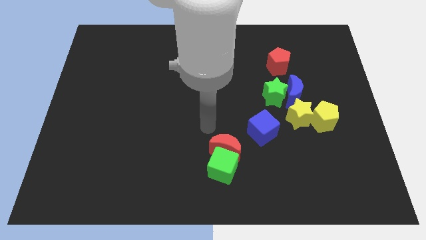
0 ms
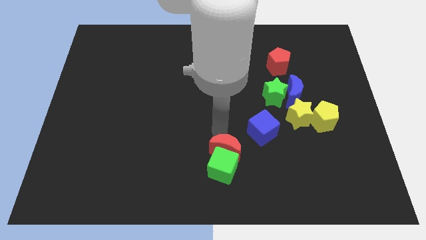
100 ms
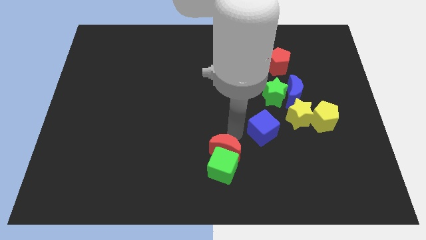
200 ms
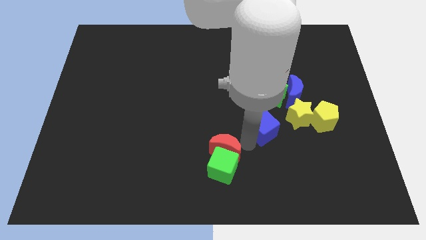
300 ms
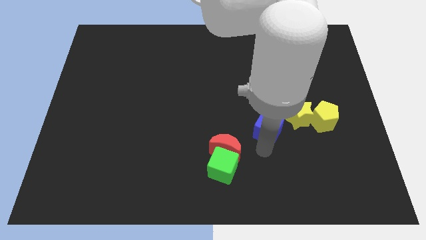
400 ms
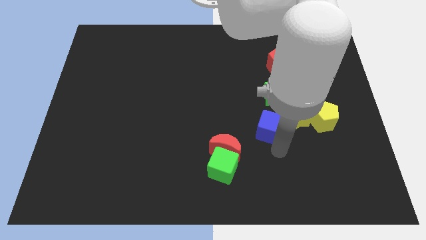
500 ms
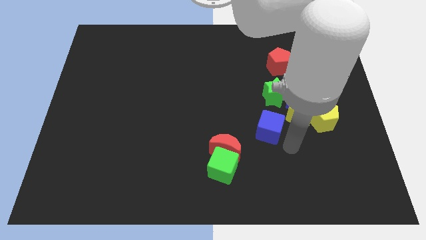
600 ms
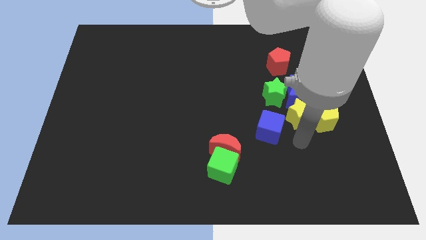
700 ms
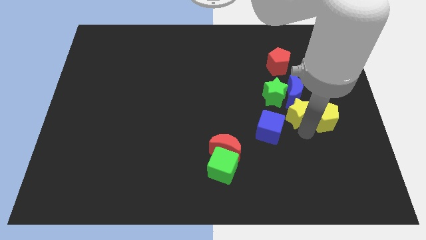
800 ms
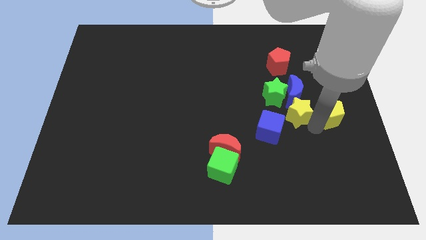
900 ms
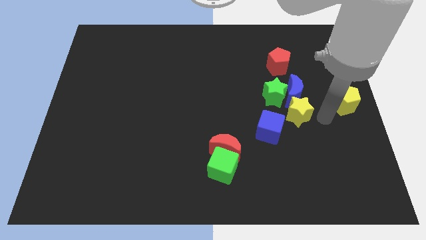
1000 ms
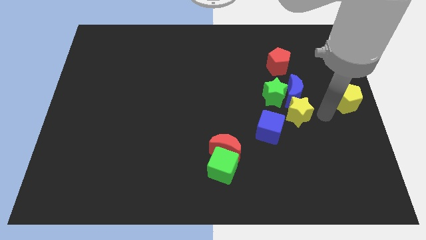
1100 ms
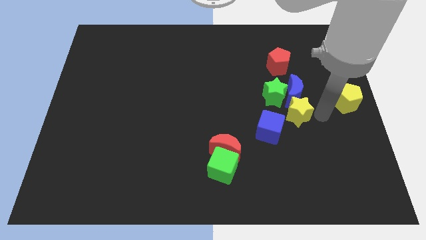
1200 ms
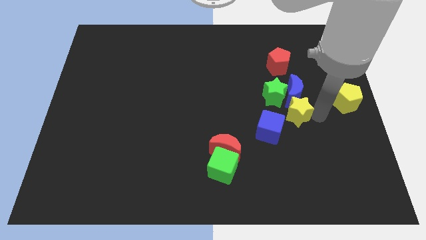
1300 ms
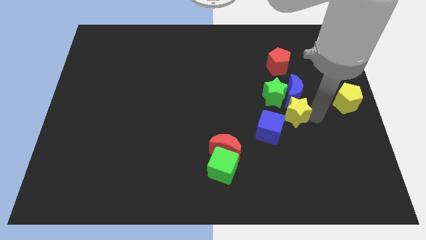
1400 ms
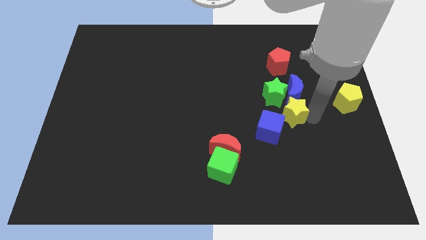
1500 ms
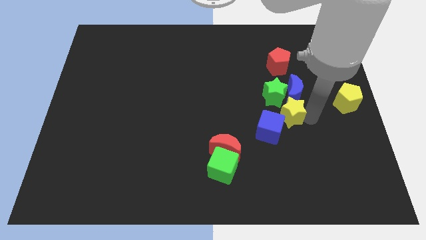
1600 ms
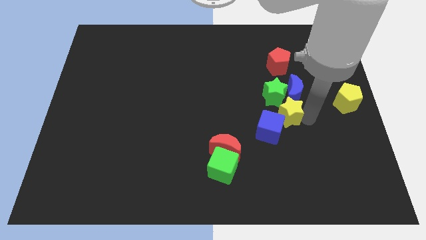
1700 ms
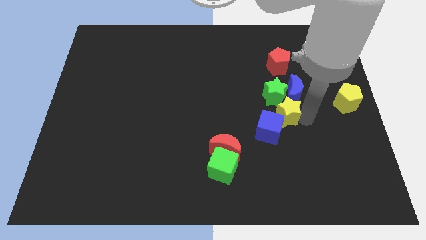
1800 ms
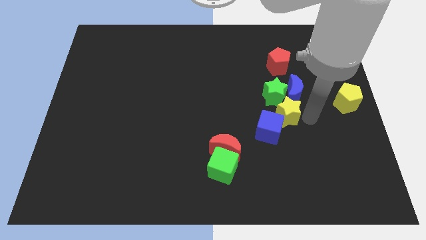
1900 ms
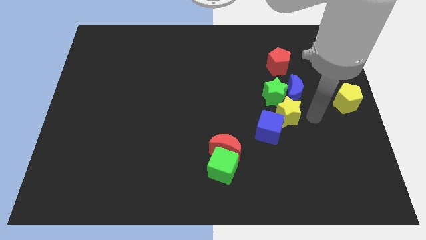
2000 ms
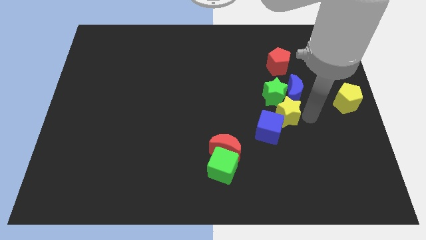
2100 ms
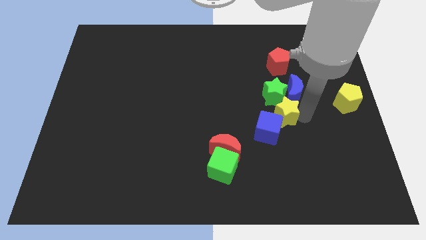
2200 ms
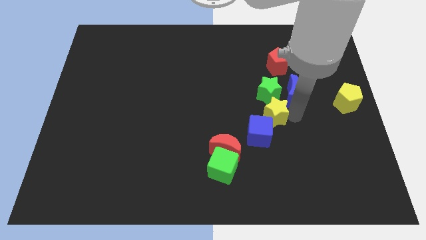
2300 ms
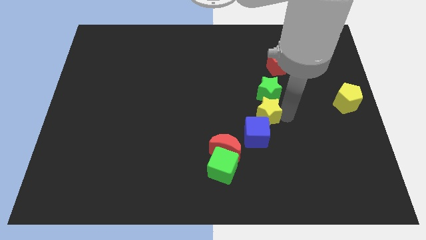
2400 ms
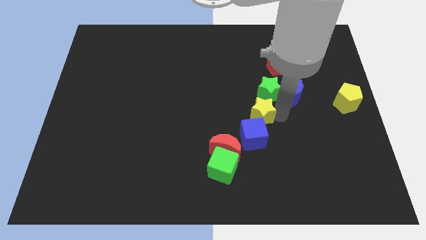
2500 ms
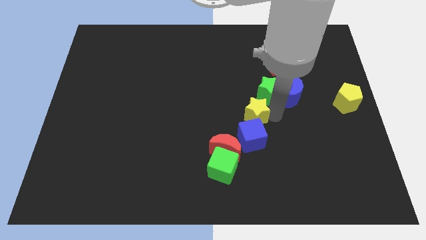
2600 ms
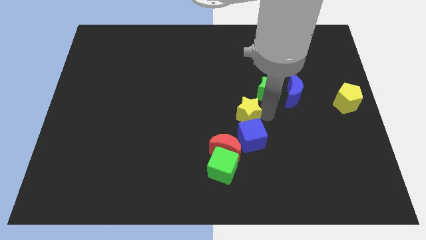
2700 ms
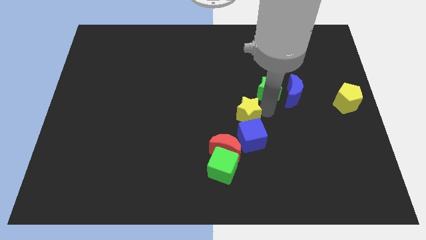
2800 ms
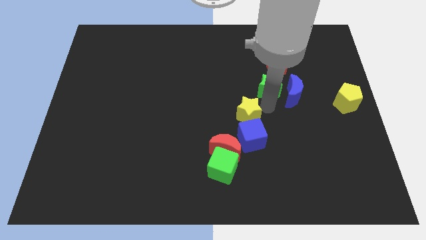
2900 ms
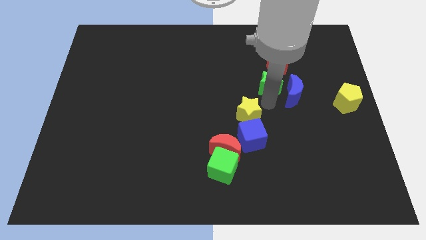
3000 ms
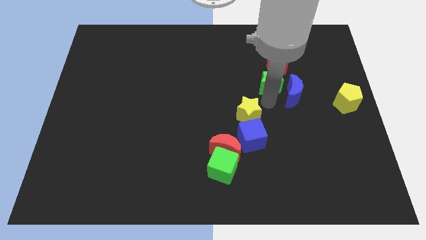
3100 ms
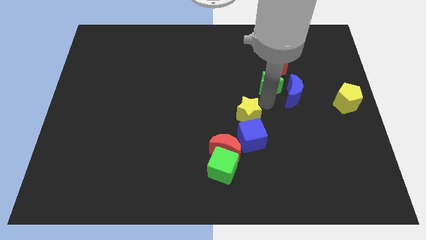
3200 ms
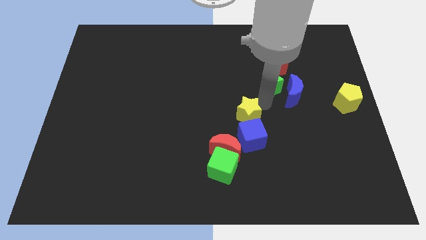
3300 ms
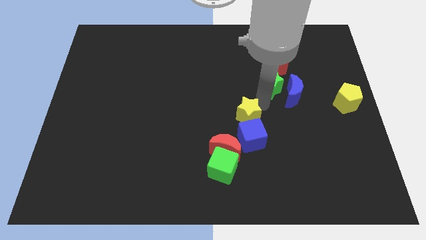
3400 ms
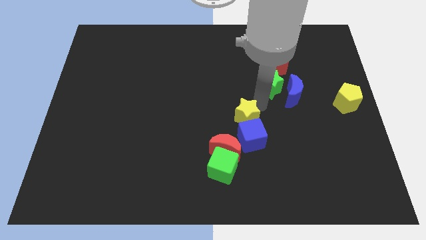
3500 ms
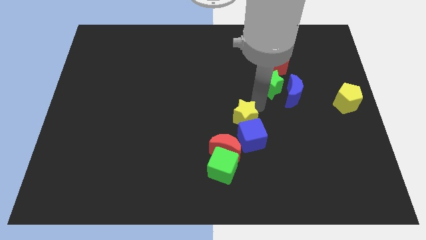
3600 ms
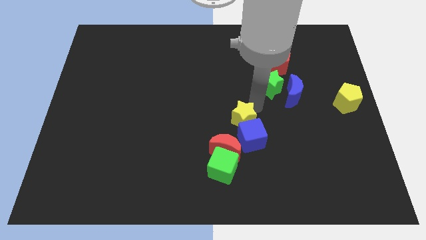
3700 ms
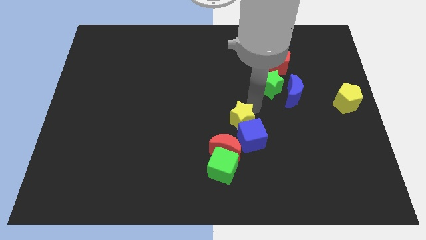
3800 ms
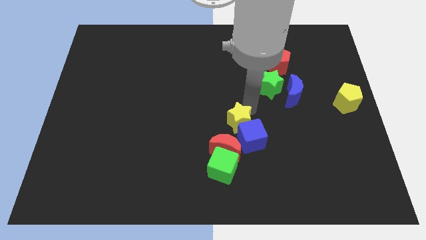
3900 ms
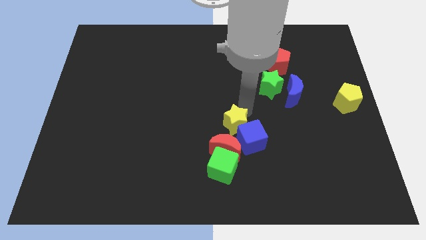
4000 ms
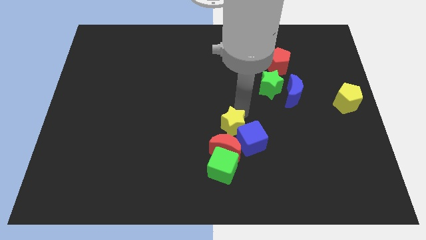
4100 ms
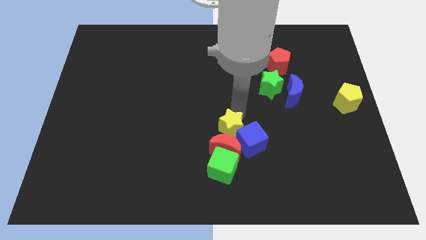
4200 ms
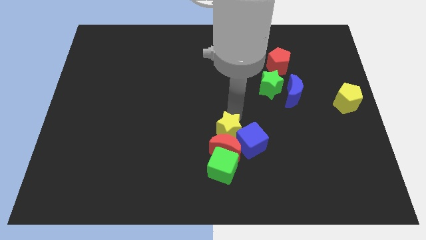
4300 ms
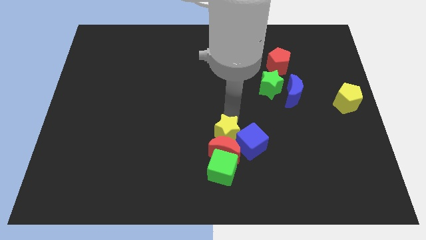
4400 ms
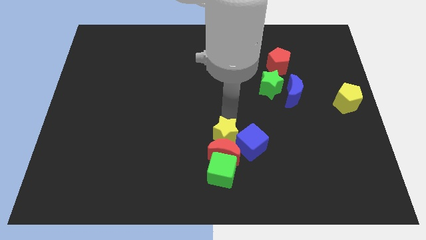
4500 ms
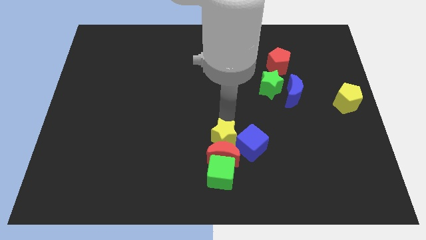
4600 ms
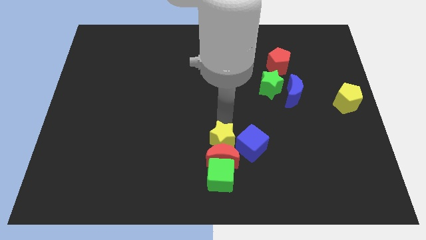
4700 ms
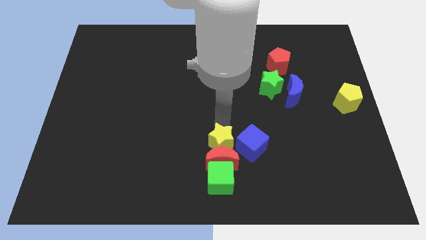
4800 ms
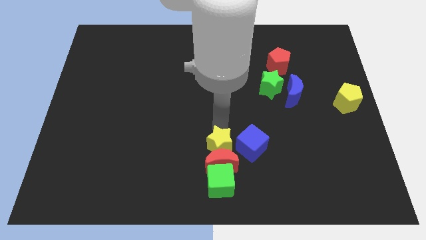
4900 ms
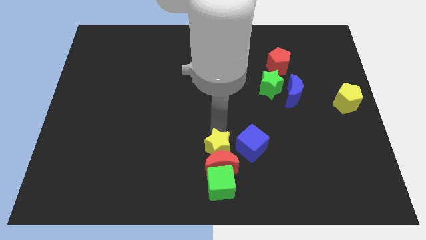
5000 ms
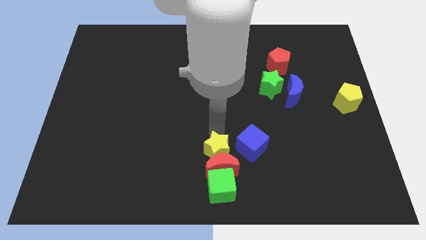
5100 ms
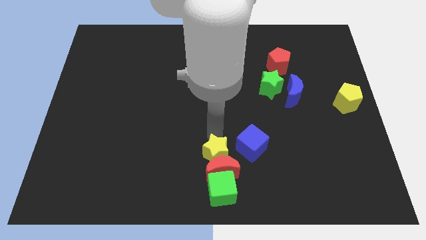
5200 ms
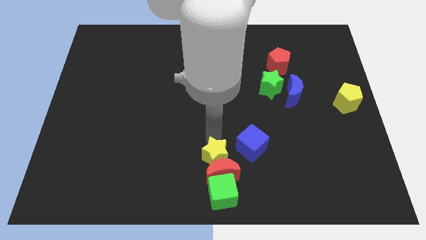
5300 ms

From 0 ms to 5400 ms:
push the yellow star to the top left side of the green cube

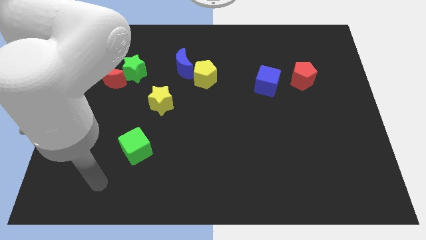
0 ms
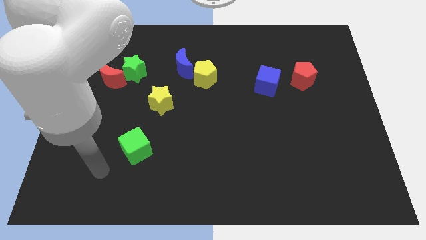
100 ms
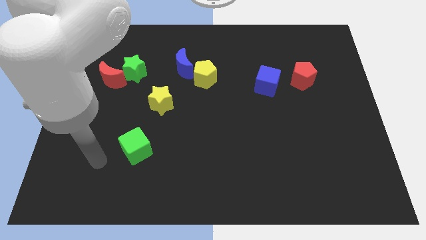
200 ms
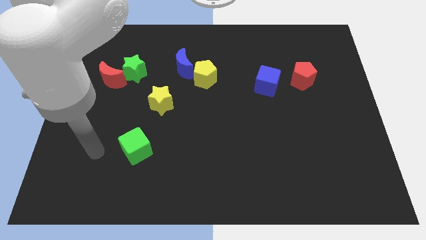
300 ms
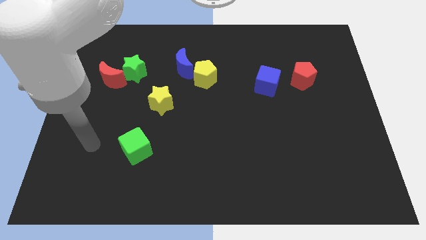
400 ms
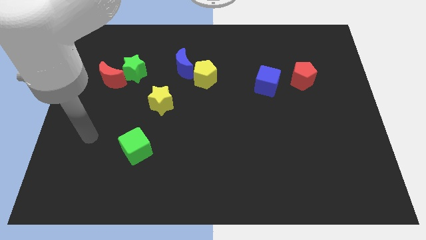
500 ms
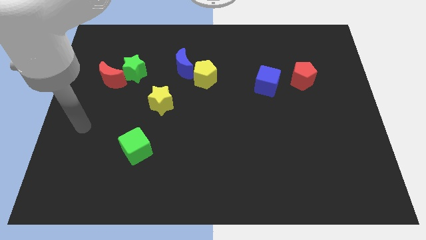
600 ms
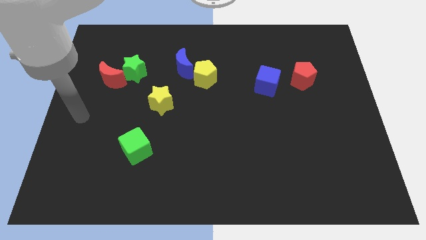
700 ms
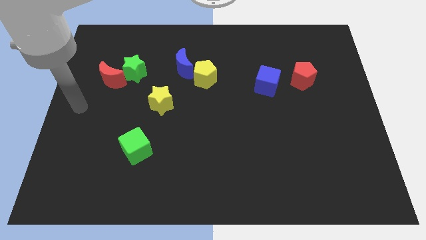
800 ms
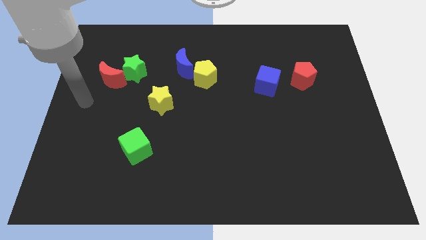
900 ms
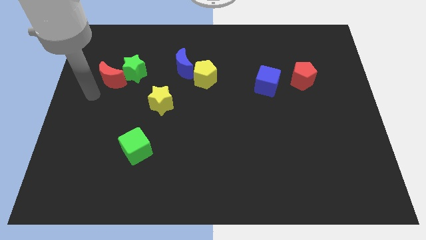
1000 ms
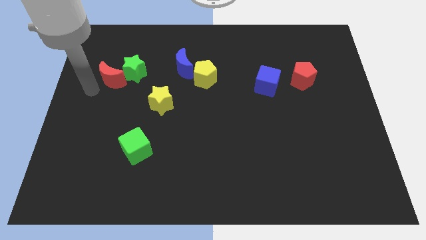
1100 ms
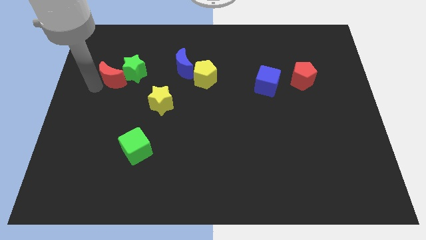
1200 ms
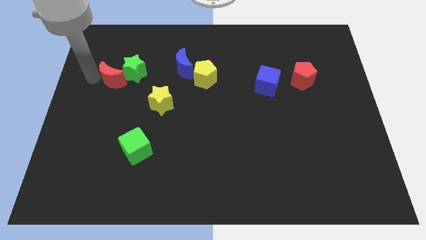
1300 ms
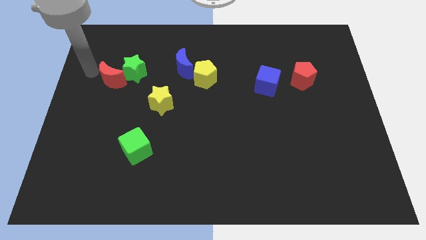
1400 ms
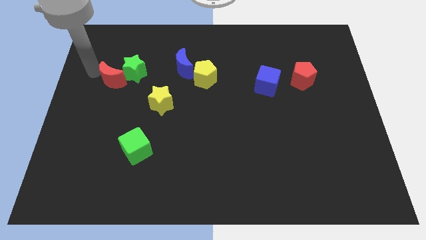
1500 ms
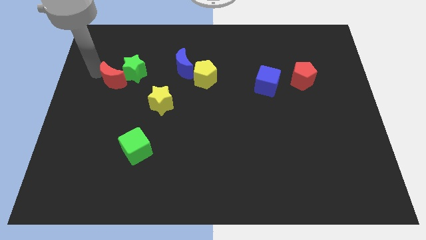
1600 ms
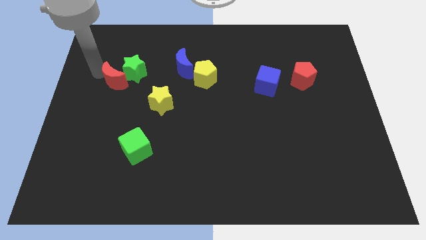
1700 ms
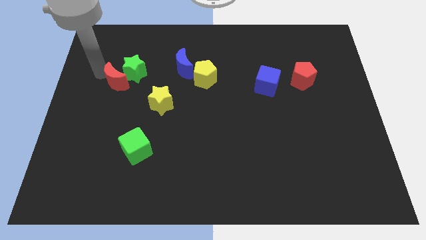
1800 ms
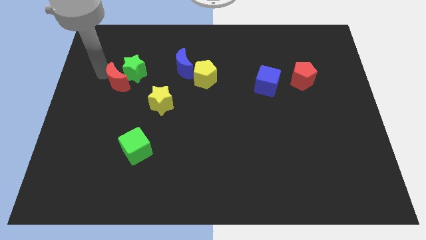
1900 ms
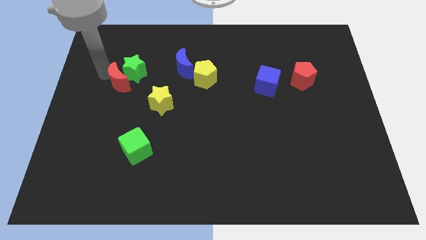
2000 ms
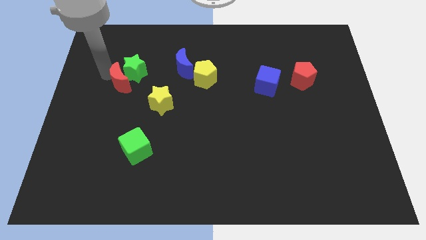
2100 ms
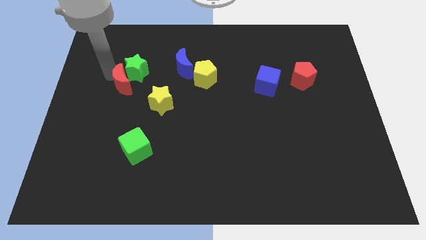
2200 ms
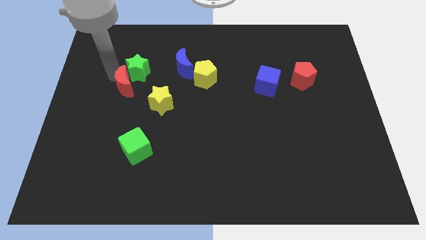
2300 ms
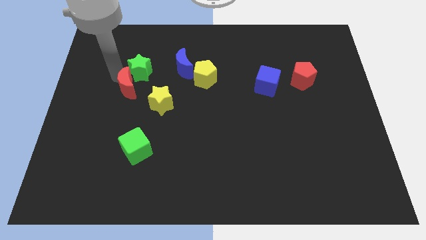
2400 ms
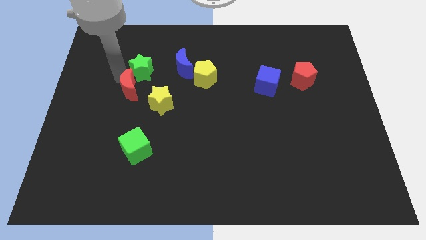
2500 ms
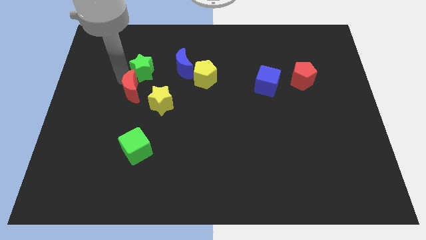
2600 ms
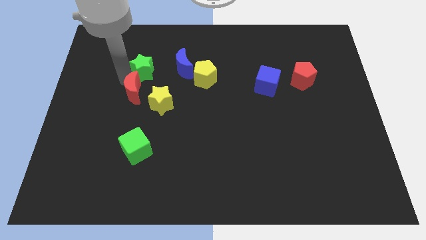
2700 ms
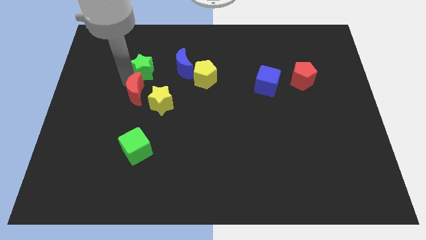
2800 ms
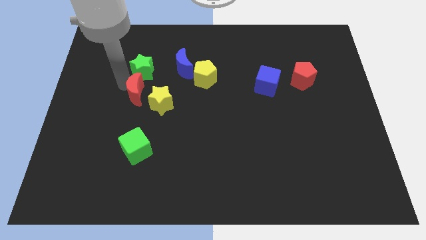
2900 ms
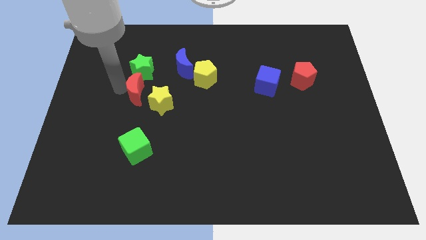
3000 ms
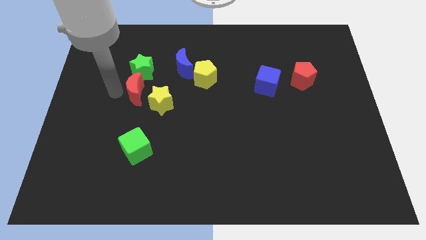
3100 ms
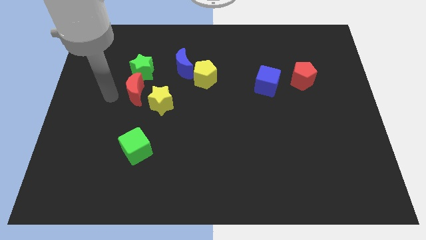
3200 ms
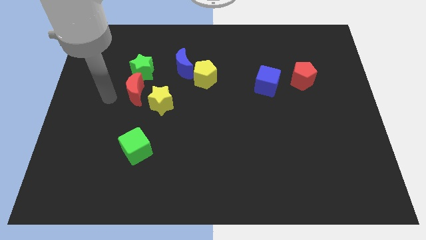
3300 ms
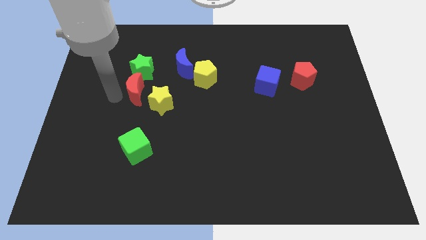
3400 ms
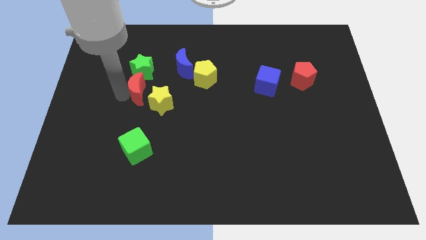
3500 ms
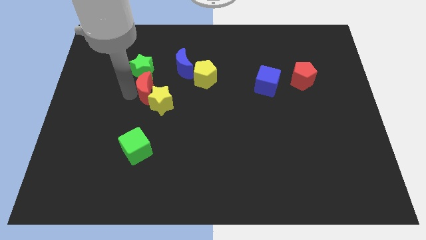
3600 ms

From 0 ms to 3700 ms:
slide the red moon to the bottom right of the green star
